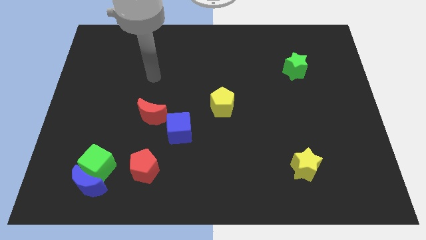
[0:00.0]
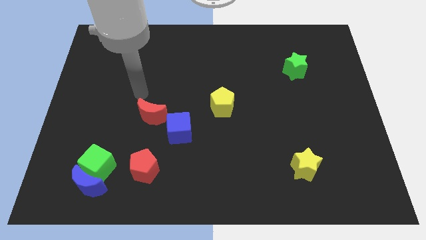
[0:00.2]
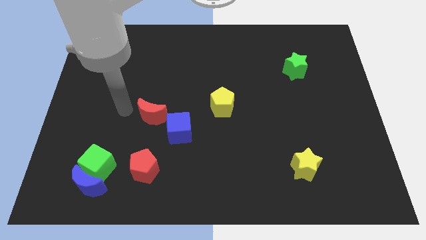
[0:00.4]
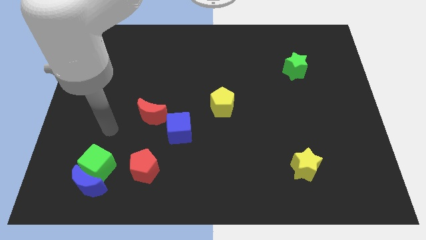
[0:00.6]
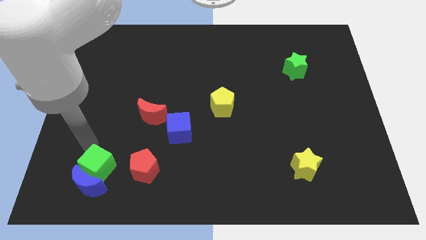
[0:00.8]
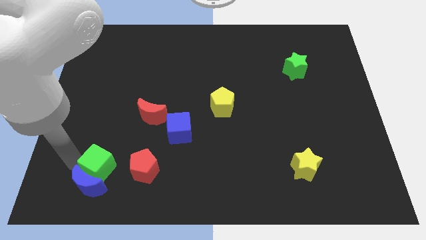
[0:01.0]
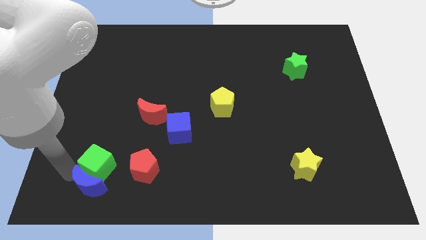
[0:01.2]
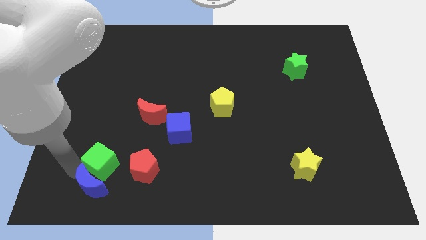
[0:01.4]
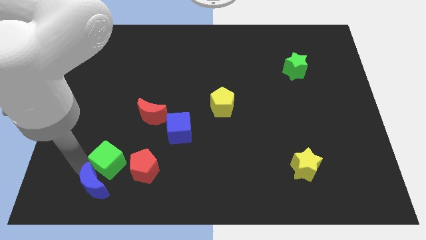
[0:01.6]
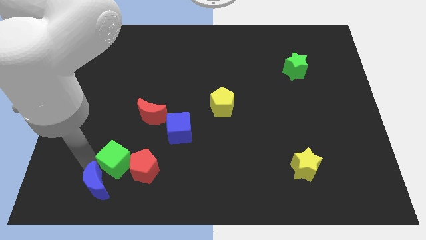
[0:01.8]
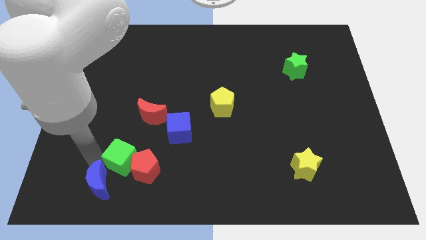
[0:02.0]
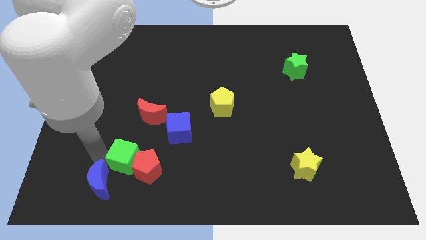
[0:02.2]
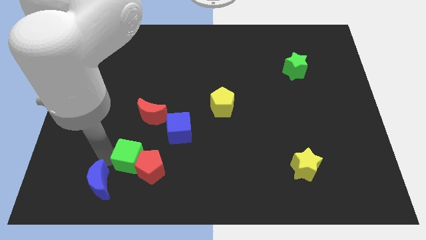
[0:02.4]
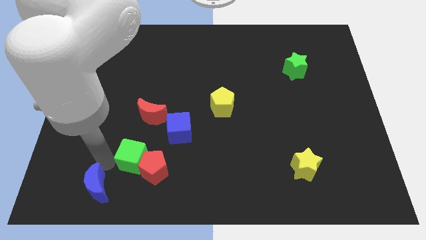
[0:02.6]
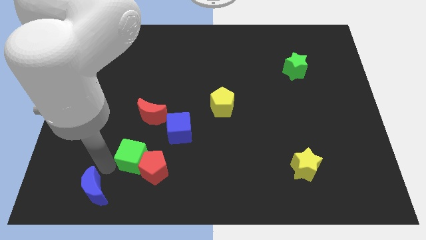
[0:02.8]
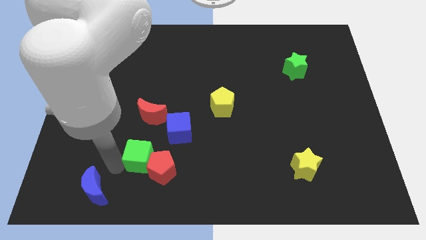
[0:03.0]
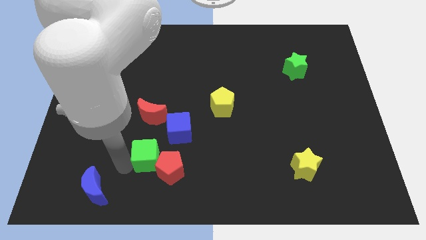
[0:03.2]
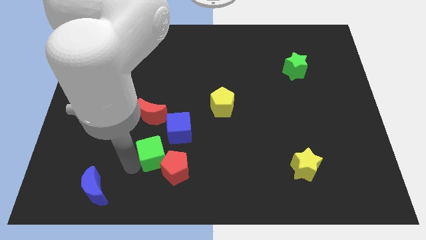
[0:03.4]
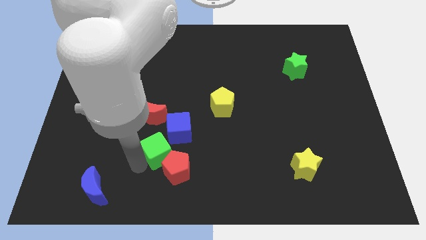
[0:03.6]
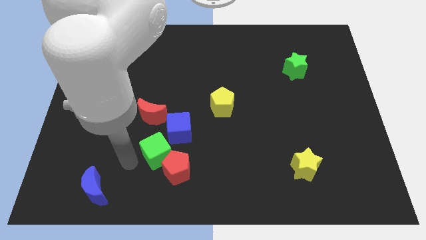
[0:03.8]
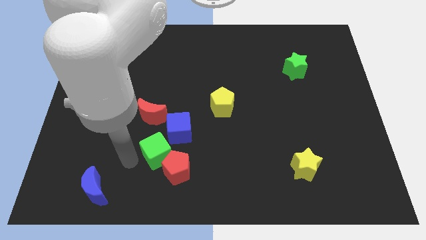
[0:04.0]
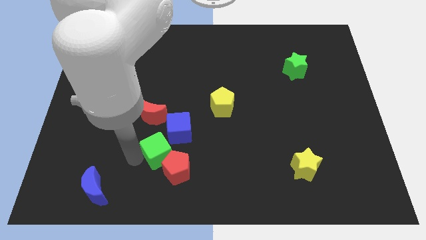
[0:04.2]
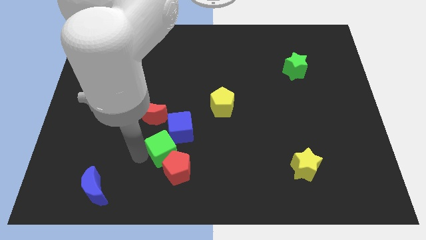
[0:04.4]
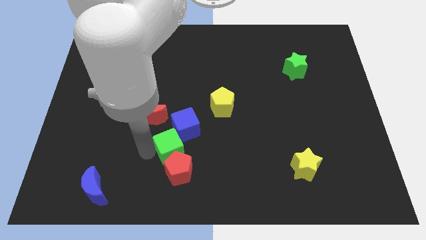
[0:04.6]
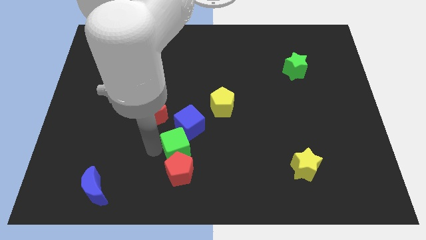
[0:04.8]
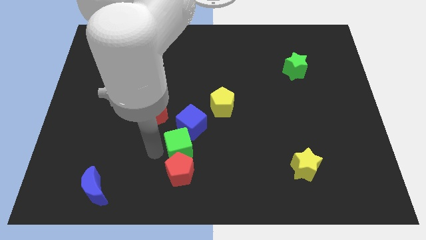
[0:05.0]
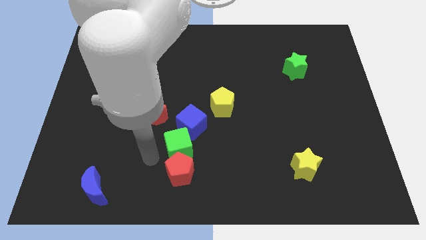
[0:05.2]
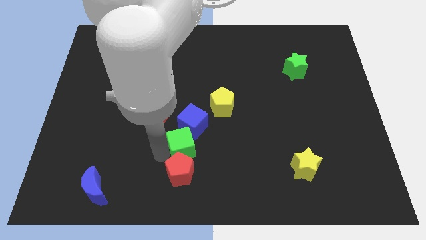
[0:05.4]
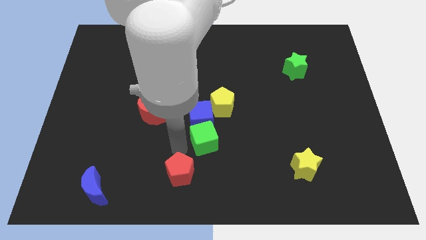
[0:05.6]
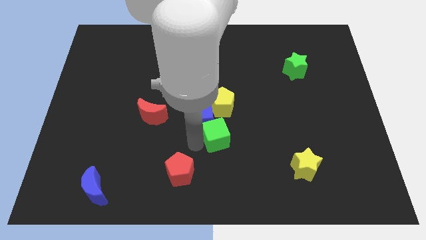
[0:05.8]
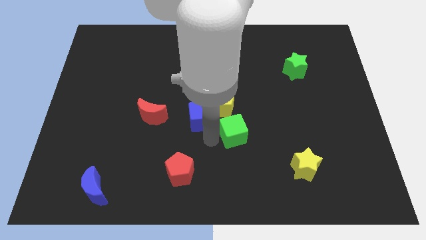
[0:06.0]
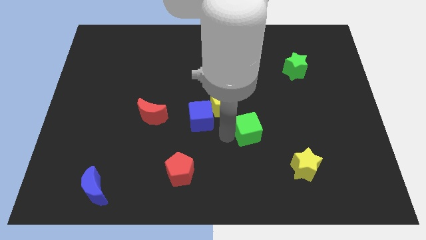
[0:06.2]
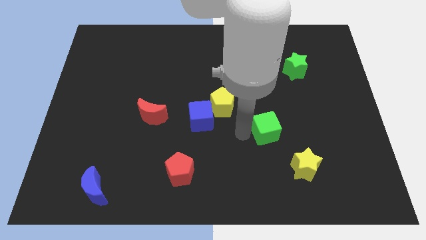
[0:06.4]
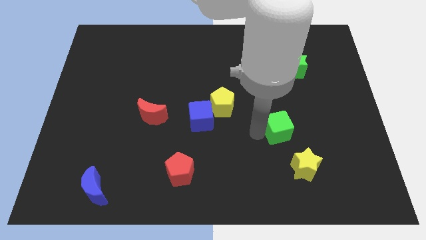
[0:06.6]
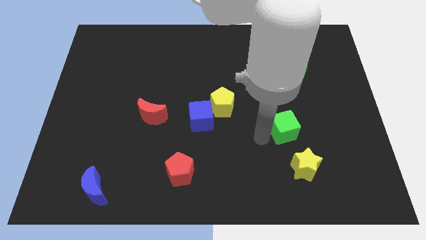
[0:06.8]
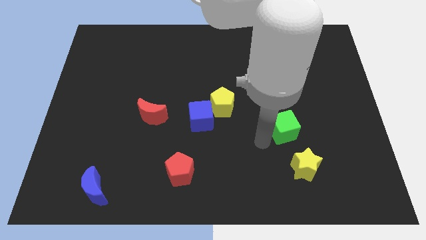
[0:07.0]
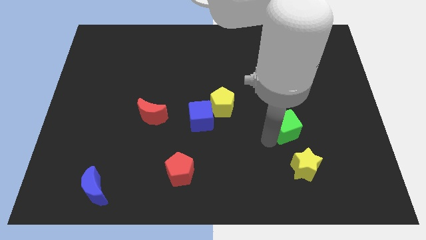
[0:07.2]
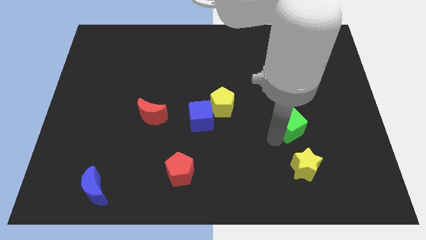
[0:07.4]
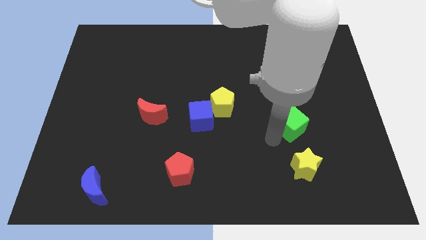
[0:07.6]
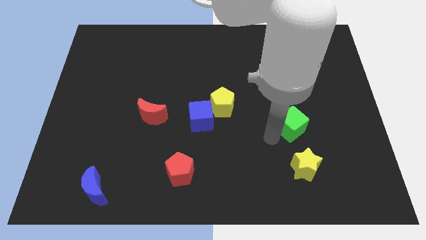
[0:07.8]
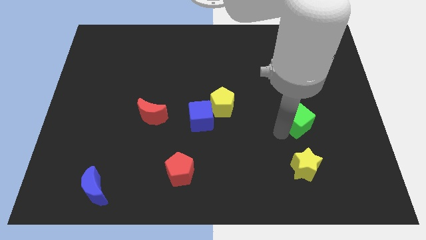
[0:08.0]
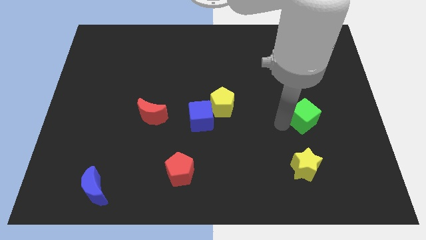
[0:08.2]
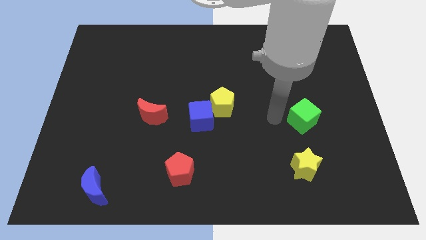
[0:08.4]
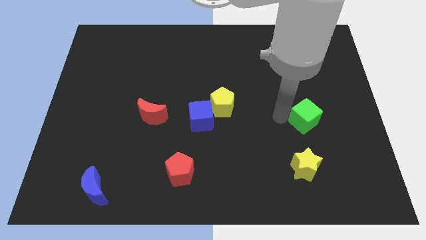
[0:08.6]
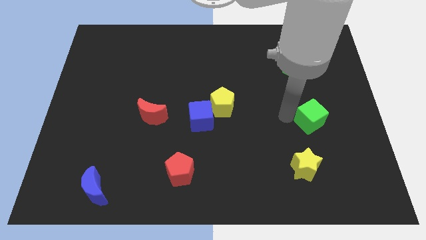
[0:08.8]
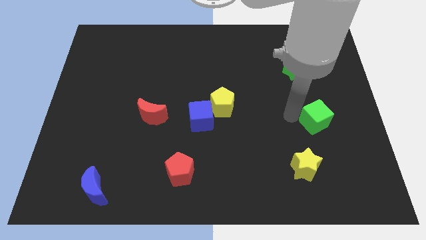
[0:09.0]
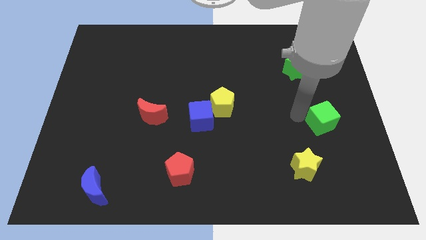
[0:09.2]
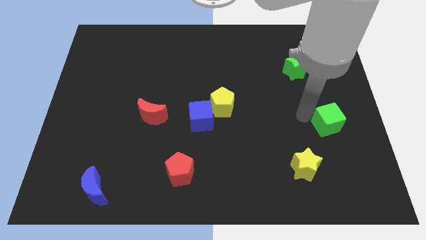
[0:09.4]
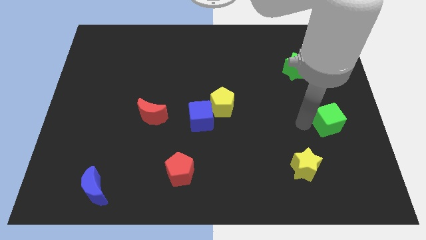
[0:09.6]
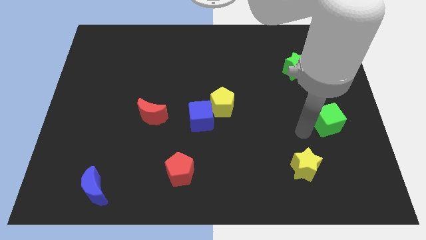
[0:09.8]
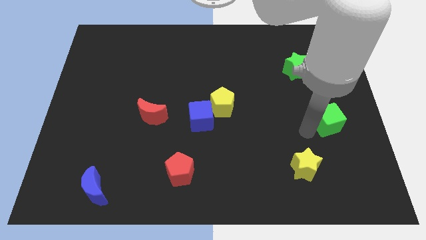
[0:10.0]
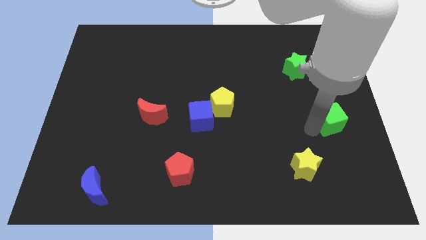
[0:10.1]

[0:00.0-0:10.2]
push the green cube to the right side of the board

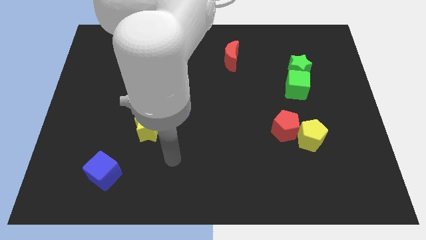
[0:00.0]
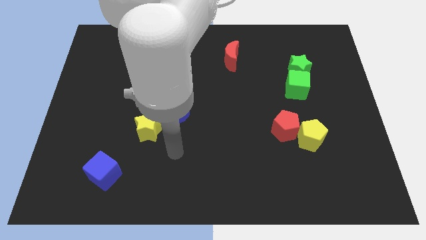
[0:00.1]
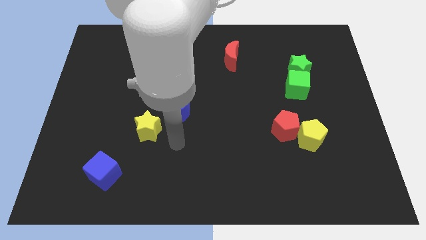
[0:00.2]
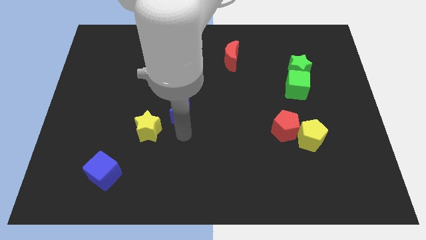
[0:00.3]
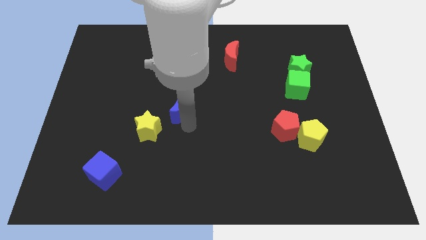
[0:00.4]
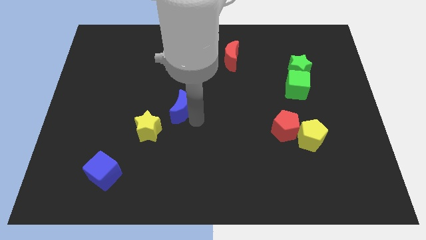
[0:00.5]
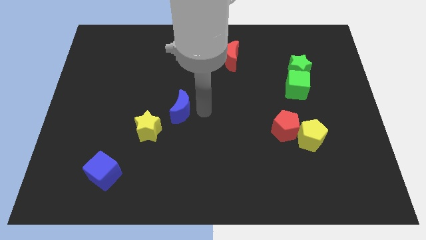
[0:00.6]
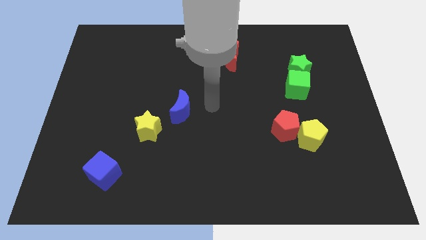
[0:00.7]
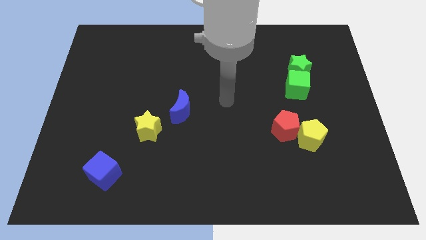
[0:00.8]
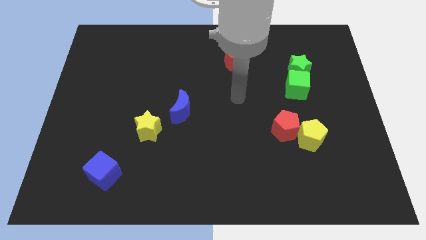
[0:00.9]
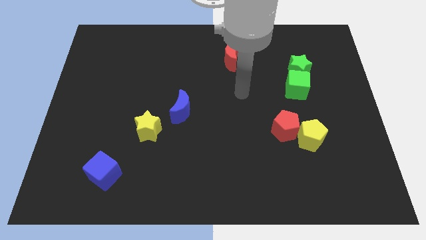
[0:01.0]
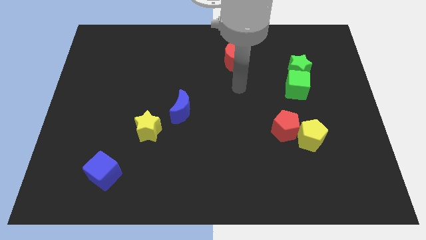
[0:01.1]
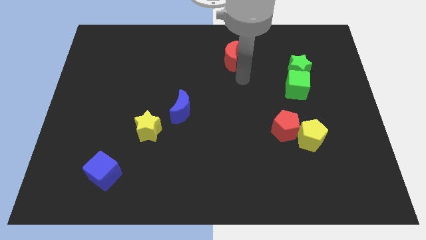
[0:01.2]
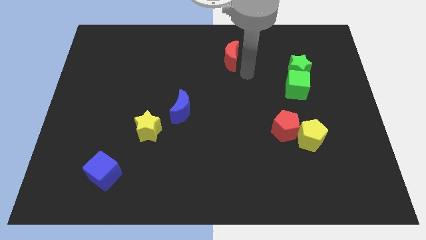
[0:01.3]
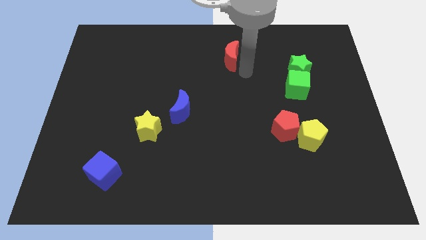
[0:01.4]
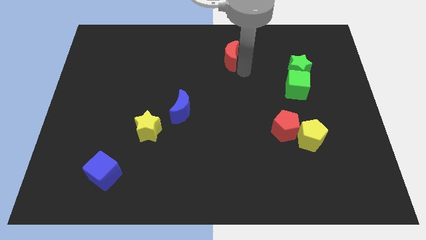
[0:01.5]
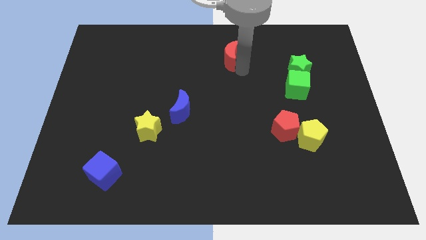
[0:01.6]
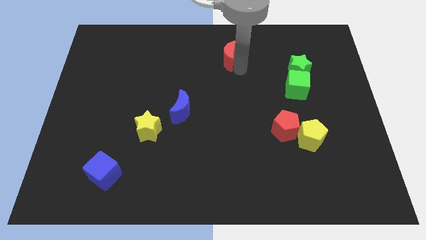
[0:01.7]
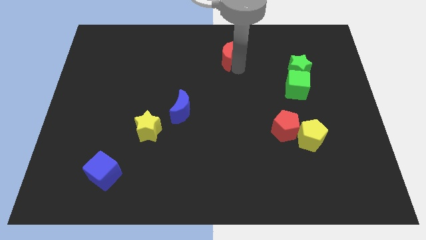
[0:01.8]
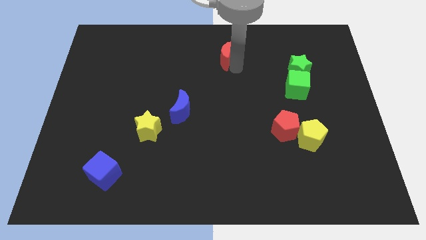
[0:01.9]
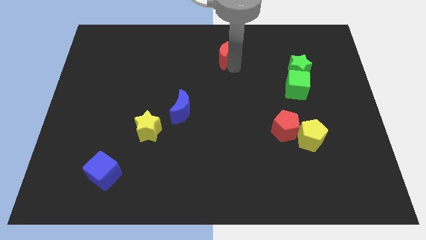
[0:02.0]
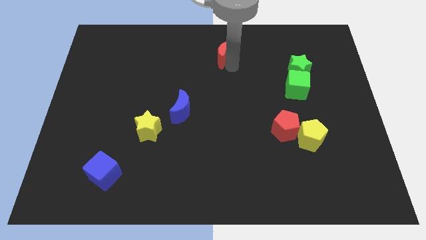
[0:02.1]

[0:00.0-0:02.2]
move the red moon to the top
